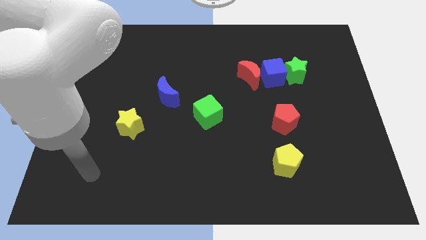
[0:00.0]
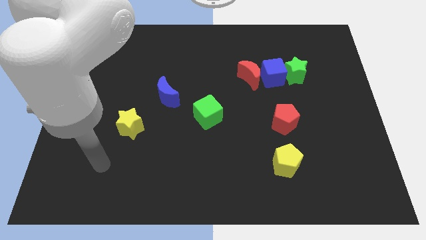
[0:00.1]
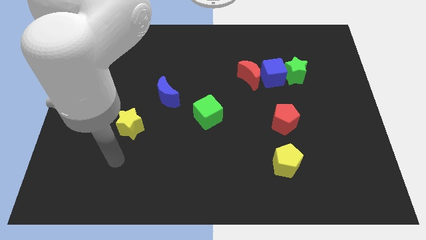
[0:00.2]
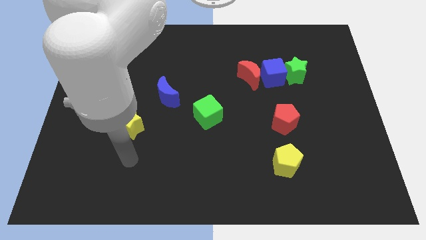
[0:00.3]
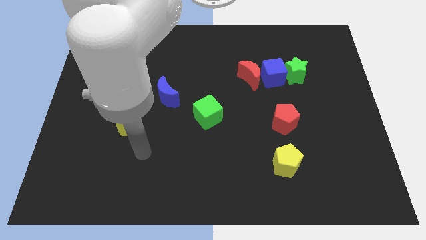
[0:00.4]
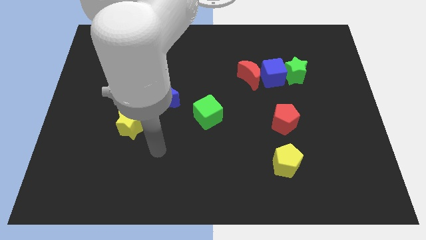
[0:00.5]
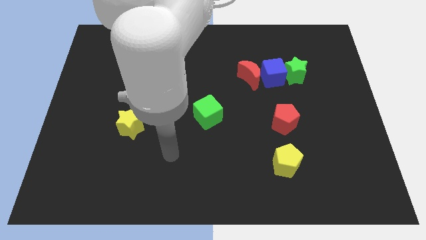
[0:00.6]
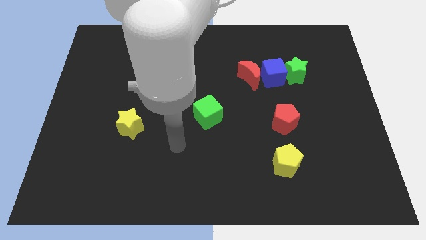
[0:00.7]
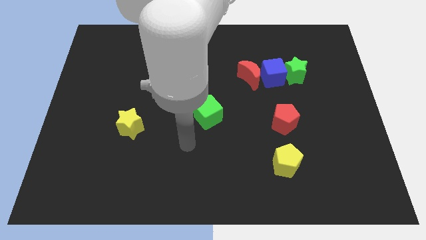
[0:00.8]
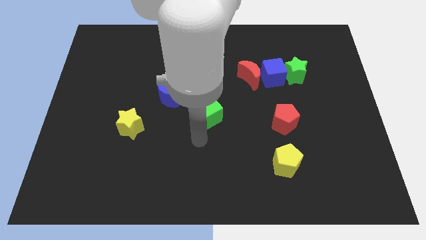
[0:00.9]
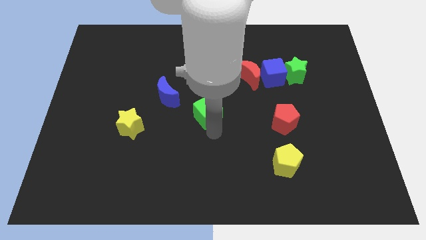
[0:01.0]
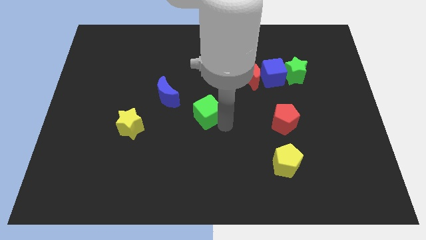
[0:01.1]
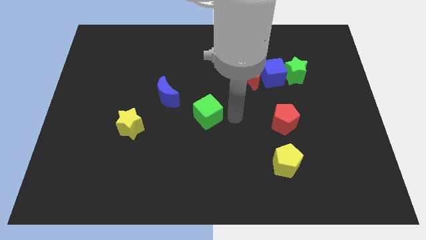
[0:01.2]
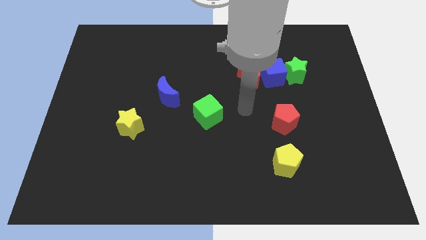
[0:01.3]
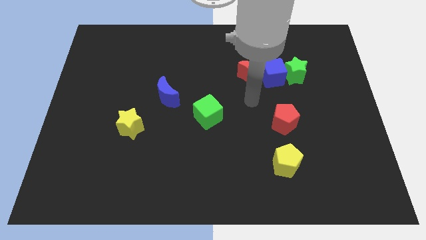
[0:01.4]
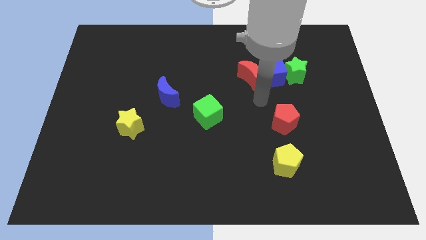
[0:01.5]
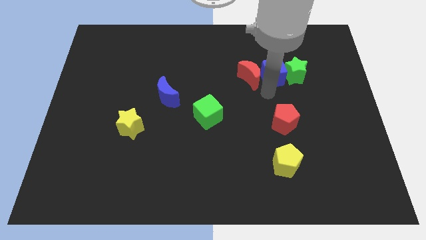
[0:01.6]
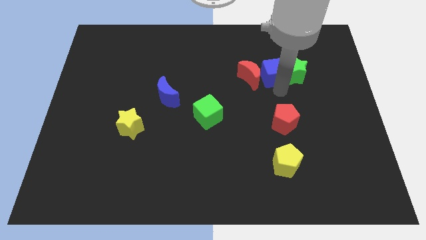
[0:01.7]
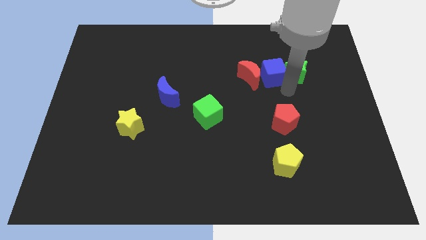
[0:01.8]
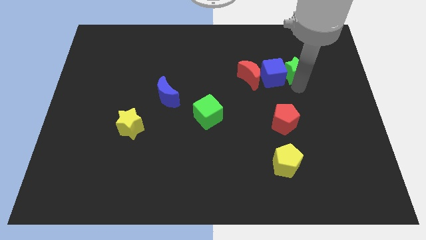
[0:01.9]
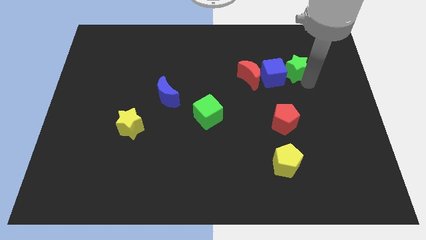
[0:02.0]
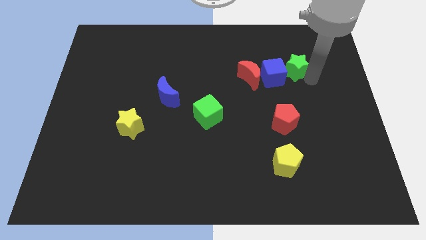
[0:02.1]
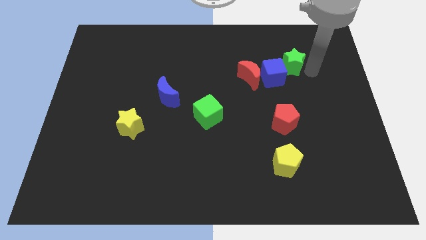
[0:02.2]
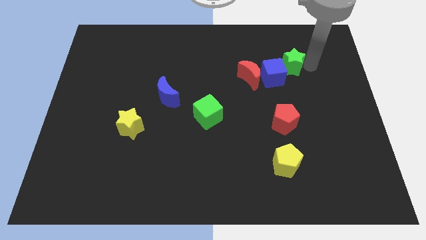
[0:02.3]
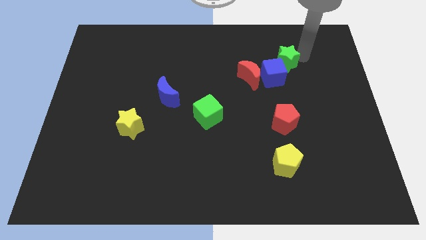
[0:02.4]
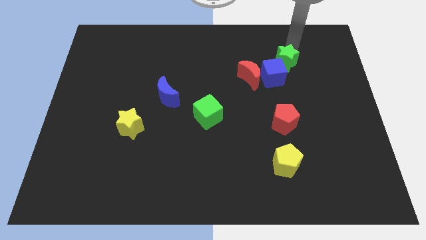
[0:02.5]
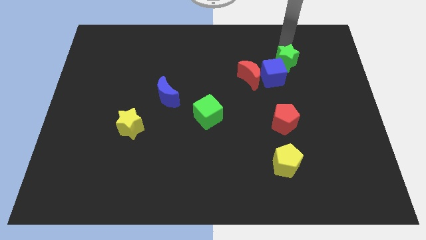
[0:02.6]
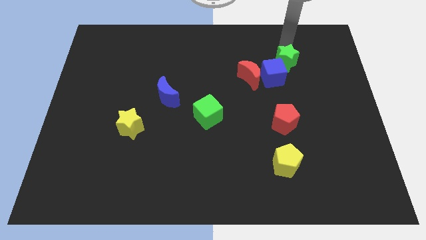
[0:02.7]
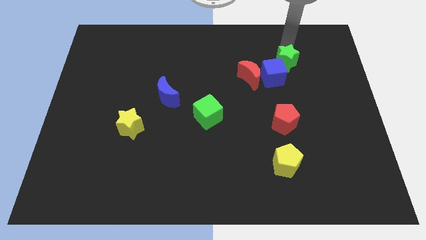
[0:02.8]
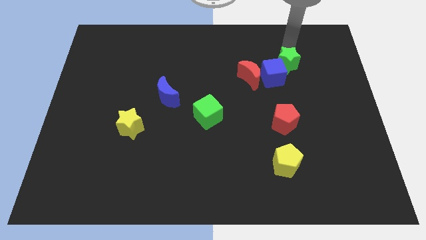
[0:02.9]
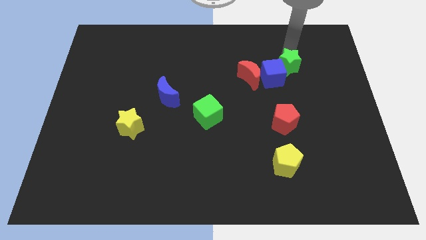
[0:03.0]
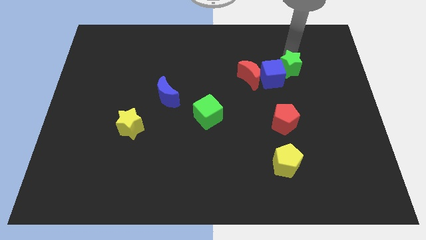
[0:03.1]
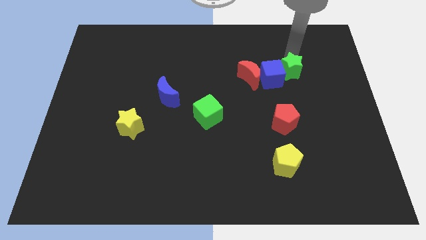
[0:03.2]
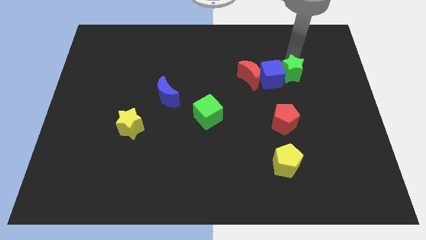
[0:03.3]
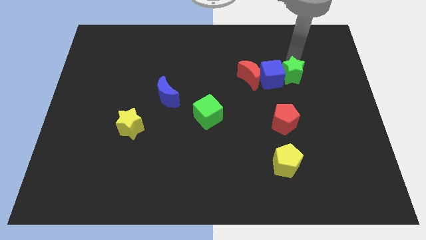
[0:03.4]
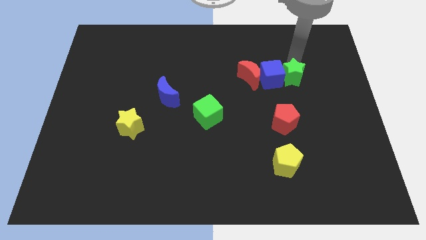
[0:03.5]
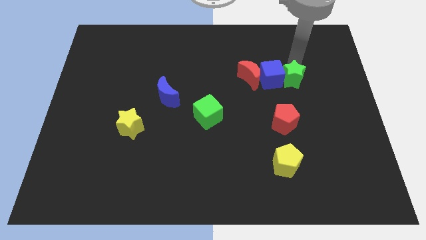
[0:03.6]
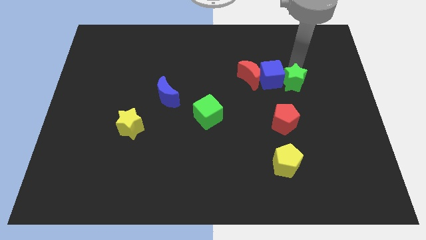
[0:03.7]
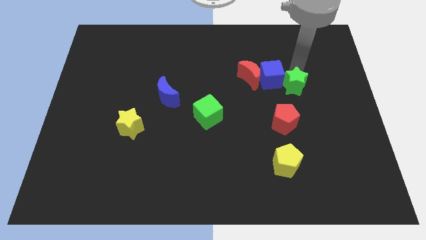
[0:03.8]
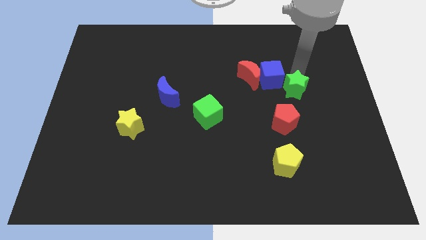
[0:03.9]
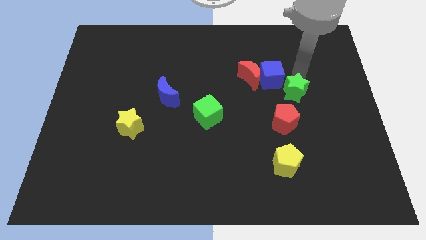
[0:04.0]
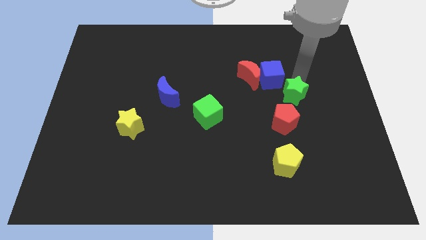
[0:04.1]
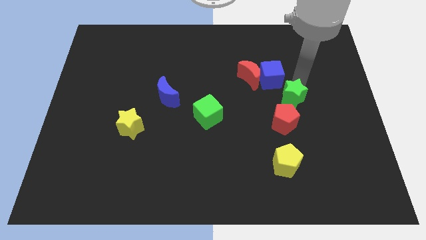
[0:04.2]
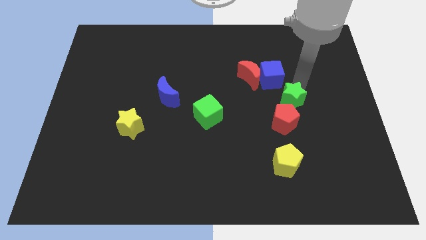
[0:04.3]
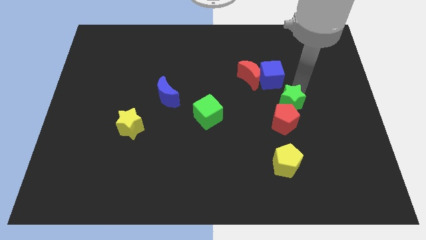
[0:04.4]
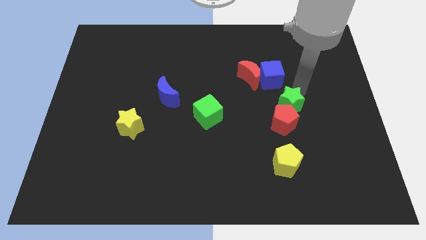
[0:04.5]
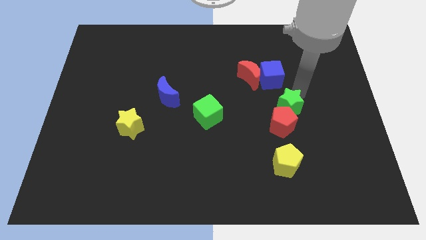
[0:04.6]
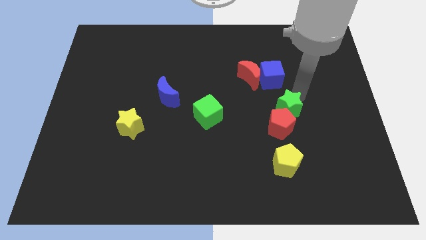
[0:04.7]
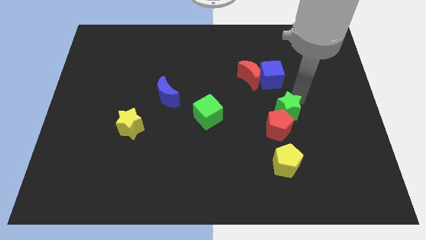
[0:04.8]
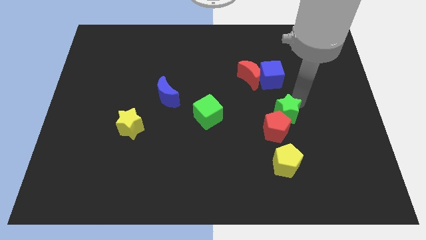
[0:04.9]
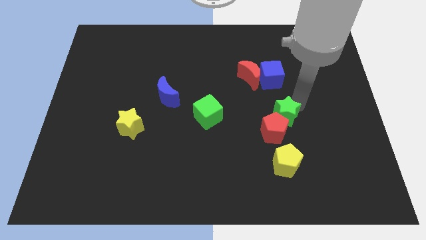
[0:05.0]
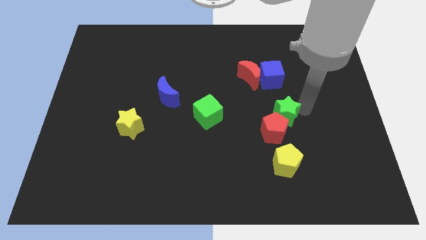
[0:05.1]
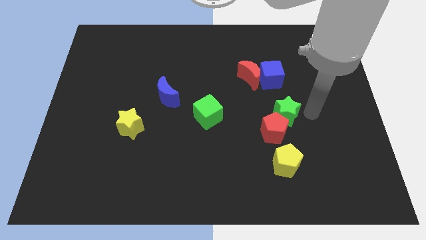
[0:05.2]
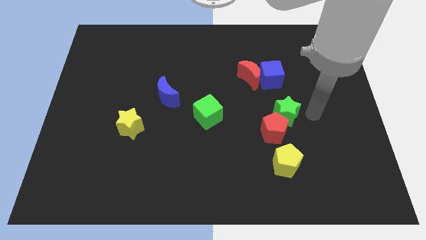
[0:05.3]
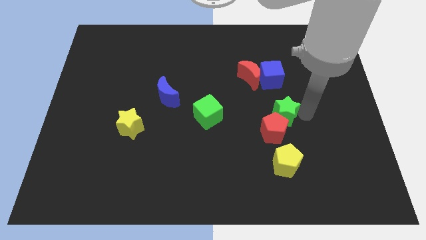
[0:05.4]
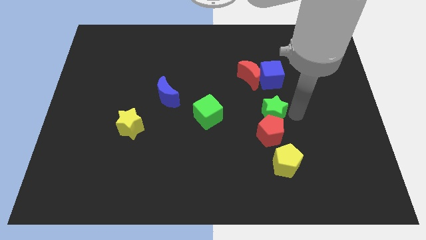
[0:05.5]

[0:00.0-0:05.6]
put the green star to the top left of the red pentagon
